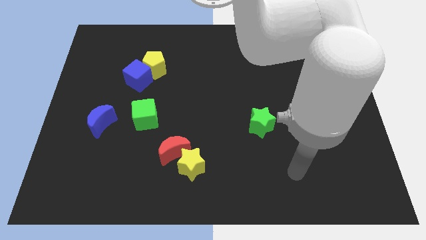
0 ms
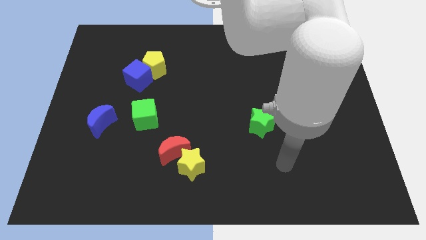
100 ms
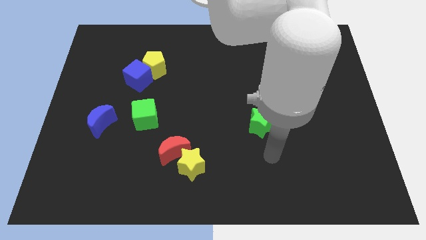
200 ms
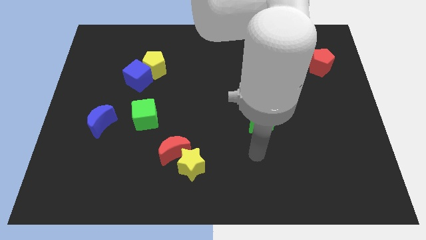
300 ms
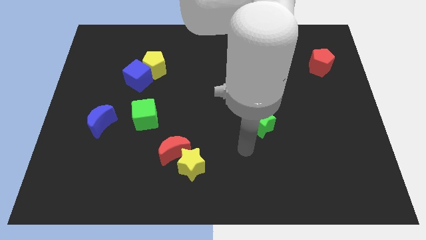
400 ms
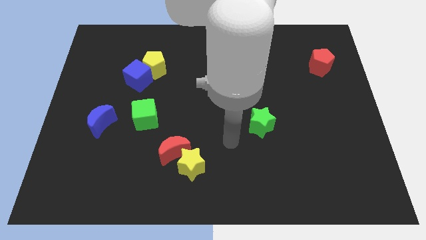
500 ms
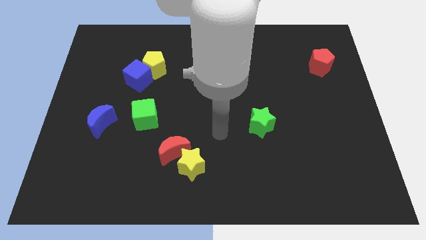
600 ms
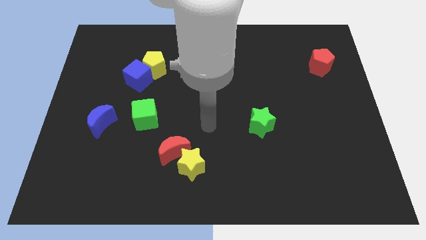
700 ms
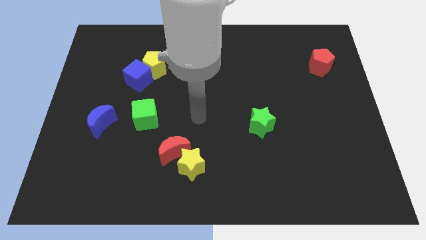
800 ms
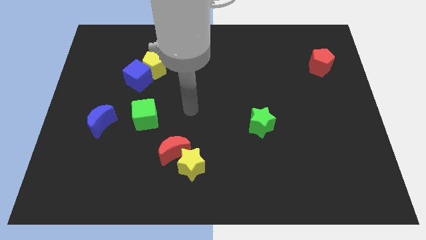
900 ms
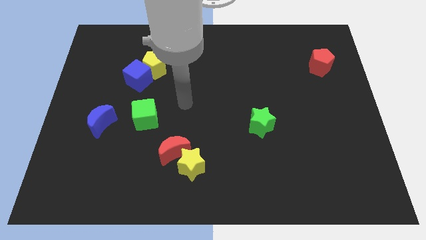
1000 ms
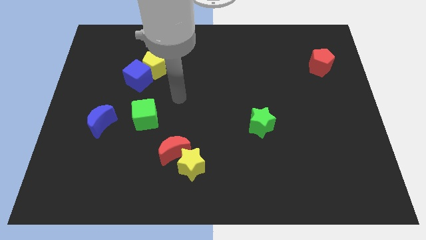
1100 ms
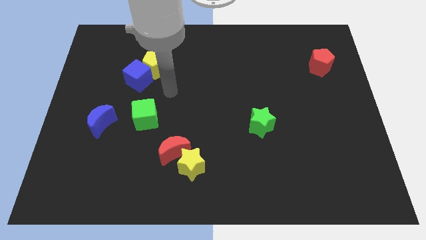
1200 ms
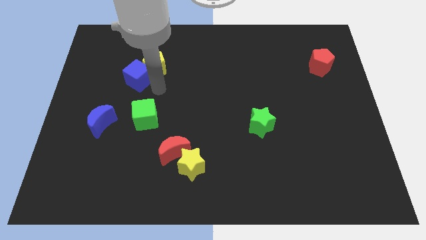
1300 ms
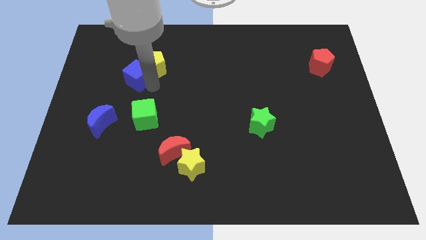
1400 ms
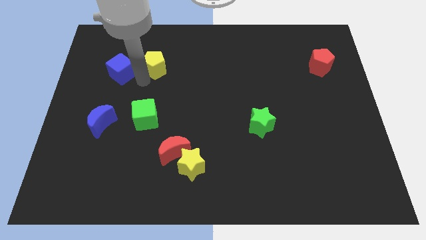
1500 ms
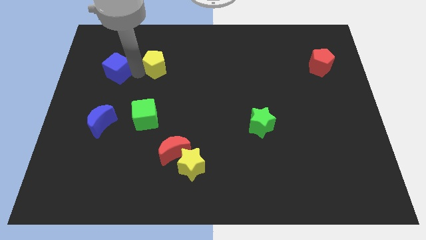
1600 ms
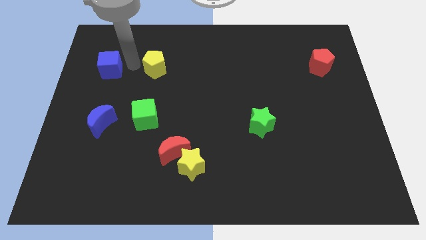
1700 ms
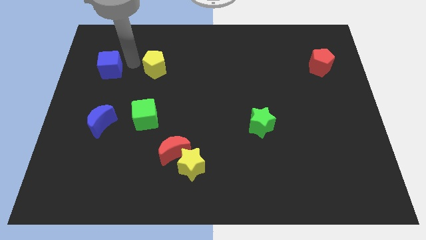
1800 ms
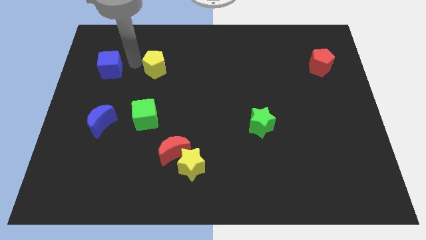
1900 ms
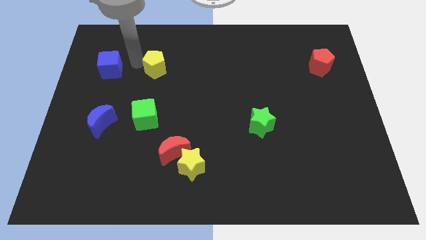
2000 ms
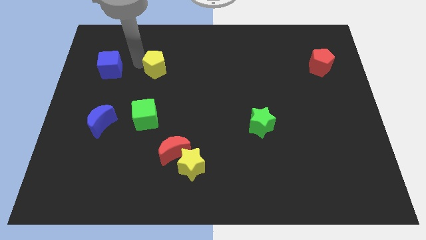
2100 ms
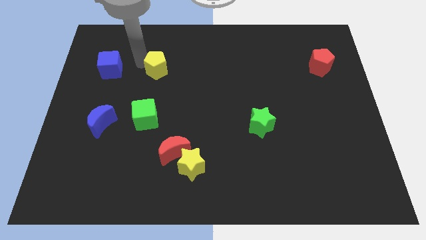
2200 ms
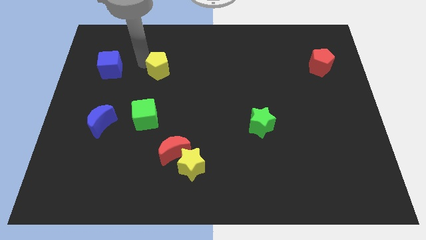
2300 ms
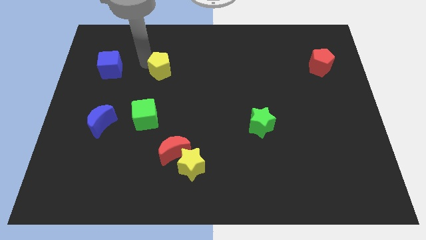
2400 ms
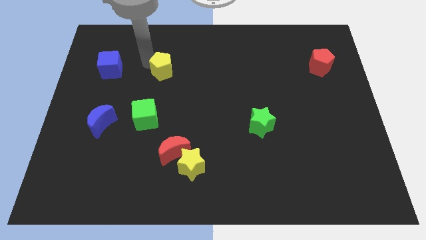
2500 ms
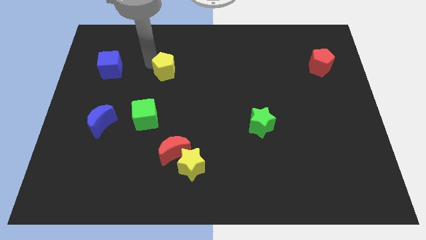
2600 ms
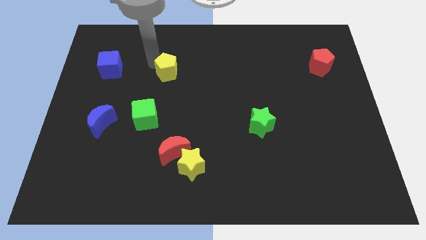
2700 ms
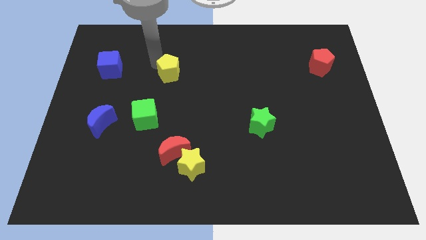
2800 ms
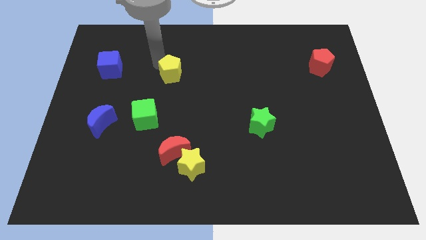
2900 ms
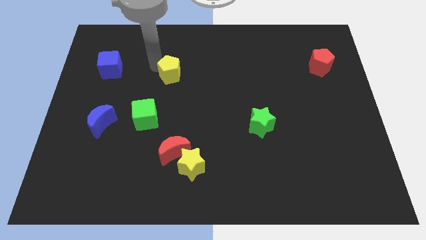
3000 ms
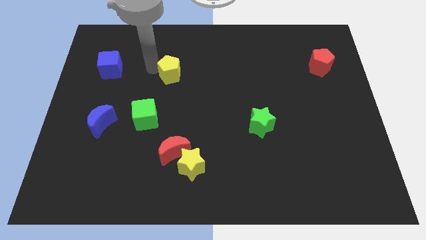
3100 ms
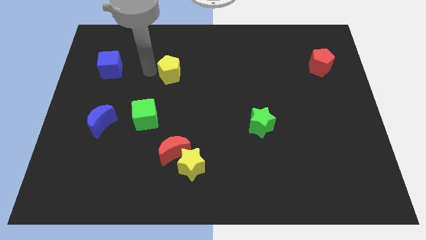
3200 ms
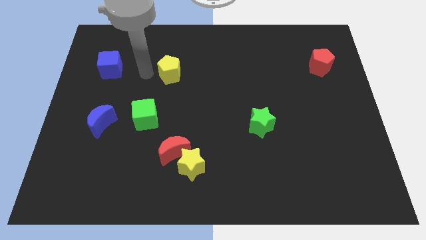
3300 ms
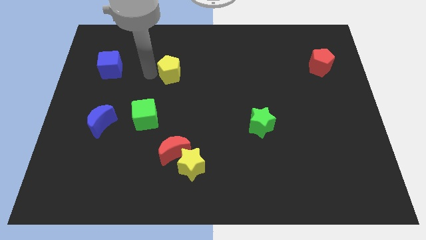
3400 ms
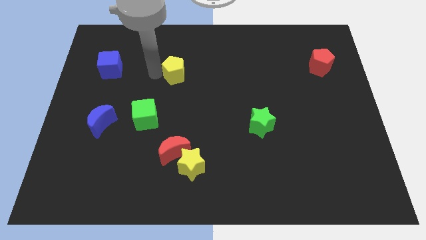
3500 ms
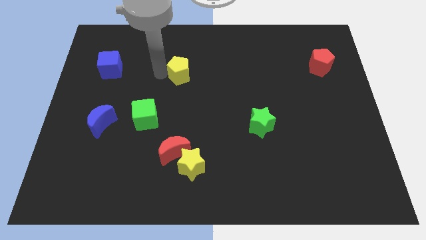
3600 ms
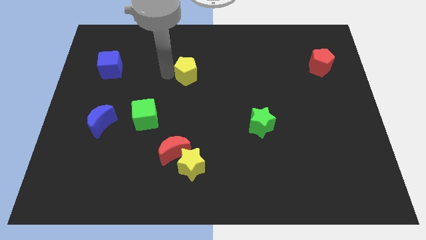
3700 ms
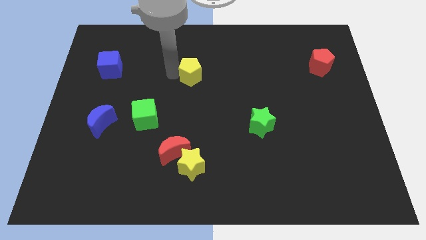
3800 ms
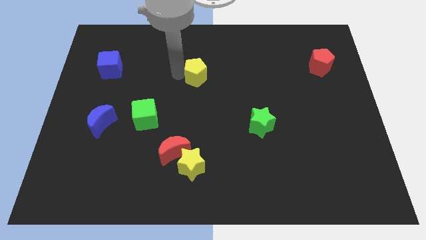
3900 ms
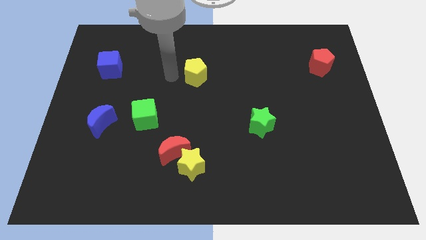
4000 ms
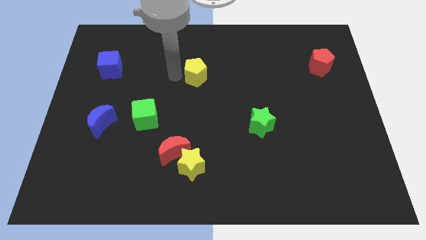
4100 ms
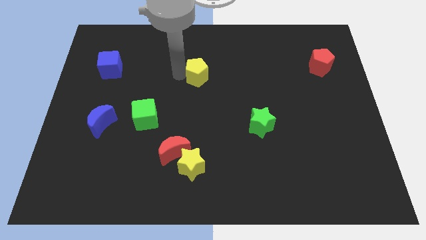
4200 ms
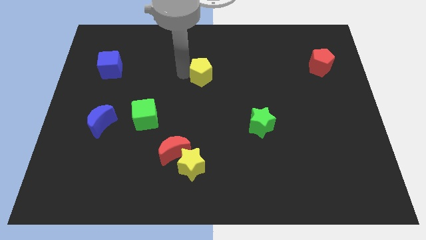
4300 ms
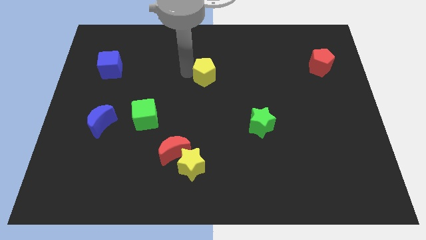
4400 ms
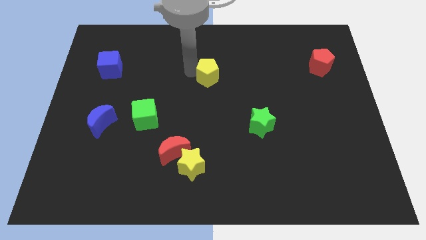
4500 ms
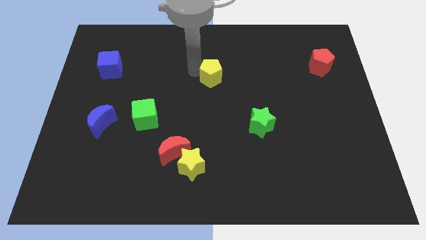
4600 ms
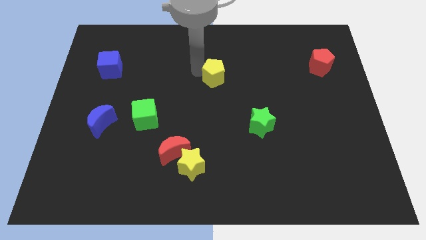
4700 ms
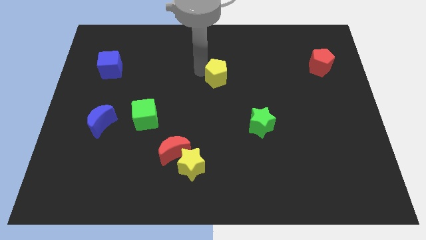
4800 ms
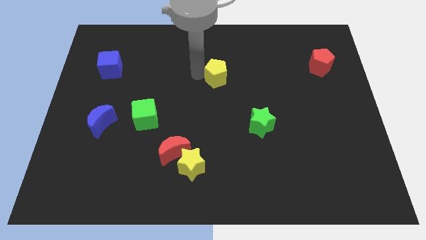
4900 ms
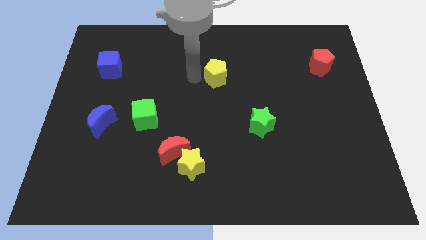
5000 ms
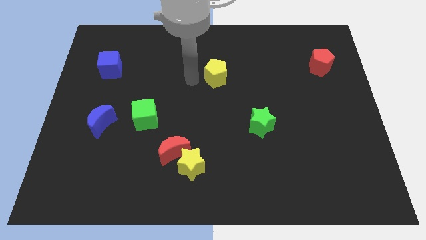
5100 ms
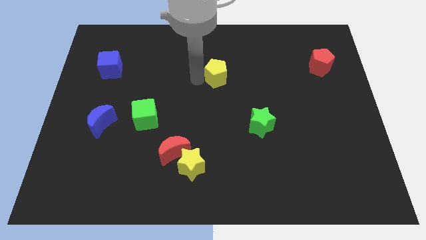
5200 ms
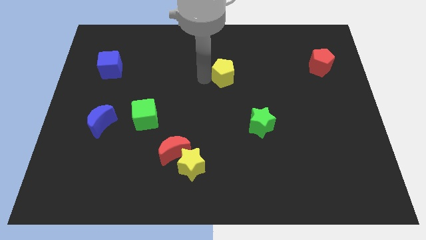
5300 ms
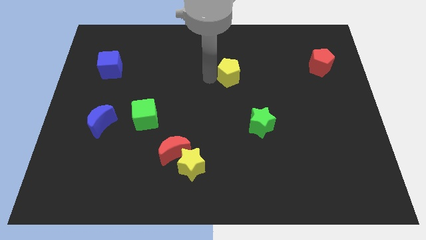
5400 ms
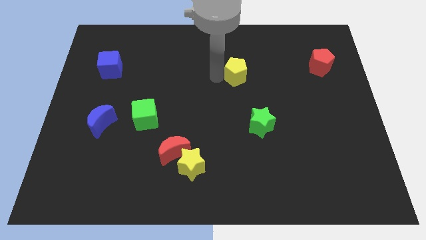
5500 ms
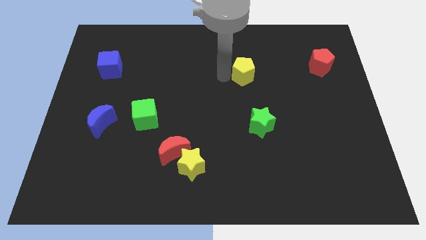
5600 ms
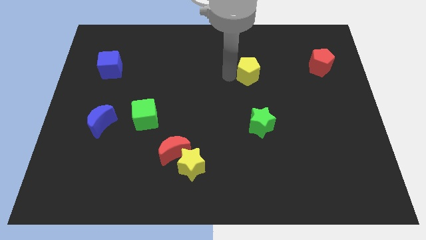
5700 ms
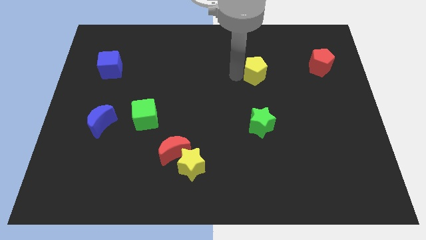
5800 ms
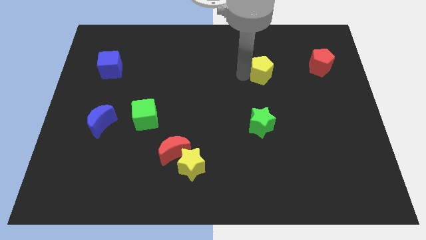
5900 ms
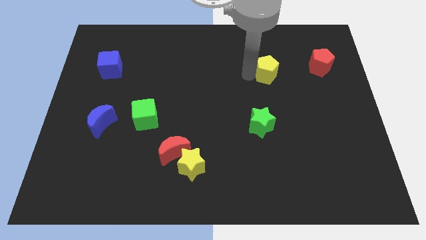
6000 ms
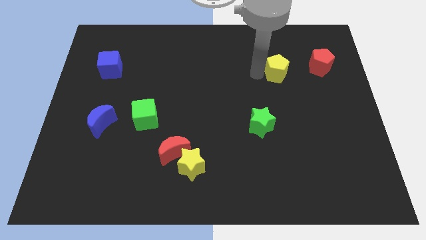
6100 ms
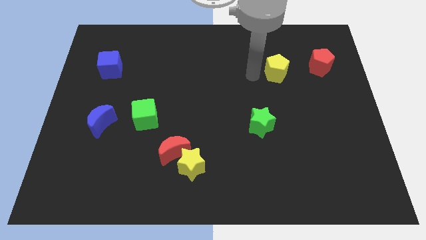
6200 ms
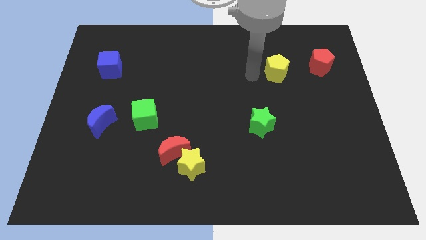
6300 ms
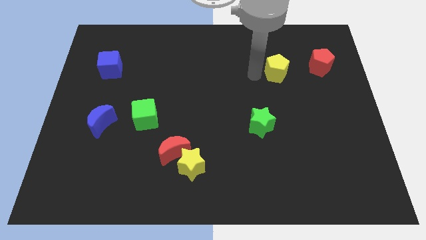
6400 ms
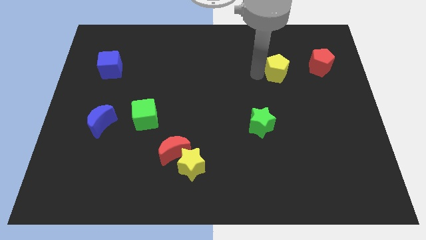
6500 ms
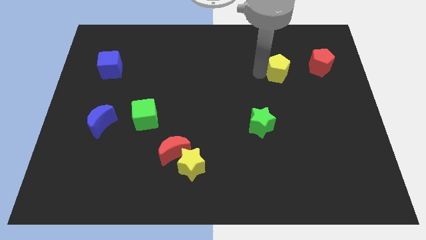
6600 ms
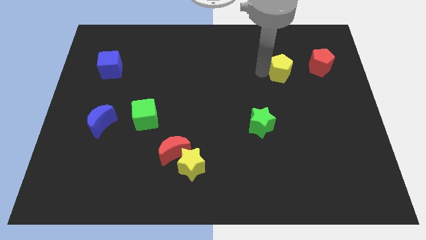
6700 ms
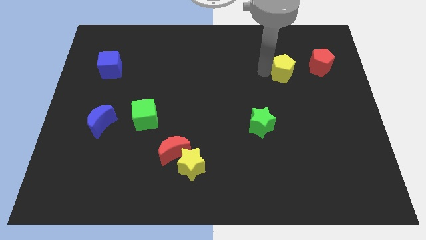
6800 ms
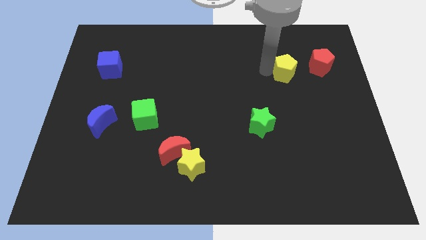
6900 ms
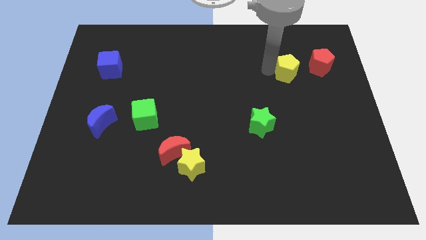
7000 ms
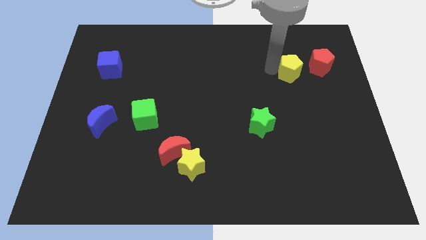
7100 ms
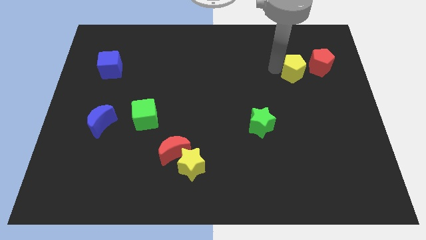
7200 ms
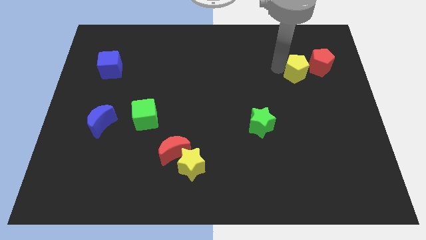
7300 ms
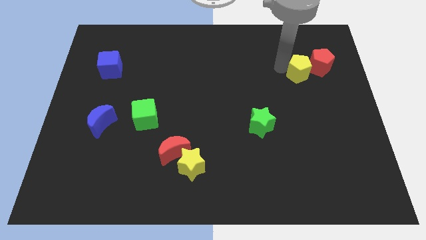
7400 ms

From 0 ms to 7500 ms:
put the yellow pentagon towards the red pentagon
